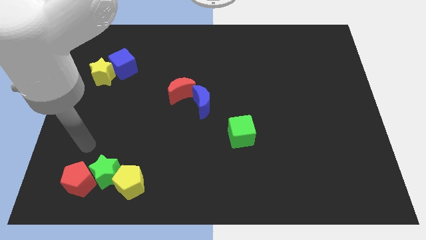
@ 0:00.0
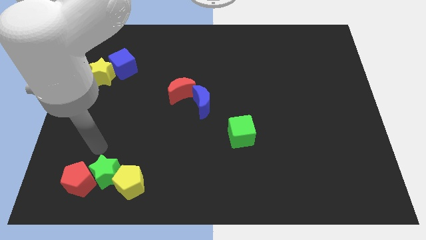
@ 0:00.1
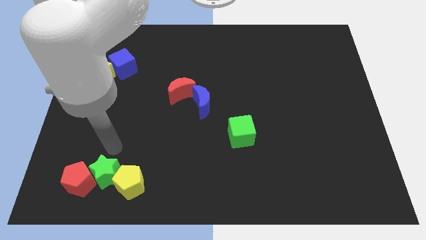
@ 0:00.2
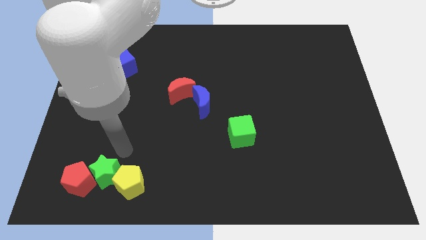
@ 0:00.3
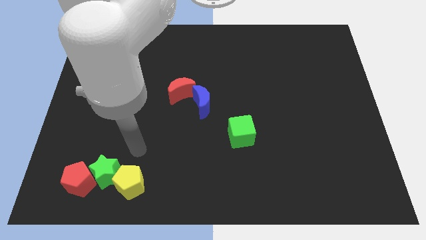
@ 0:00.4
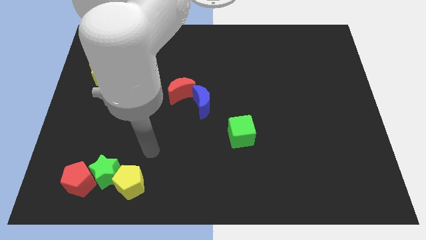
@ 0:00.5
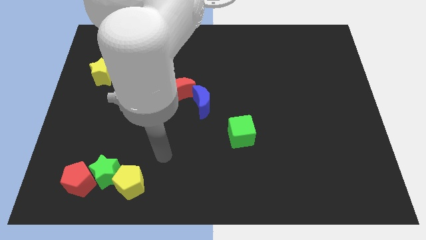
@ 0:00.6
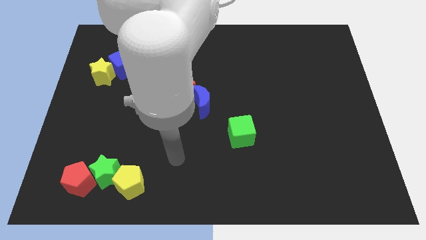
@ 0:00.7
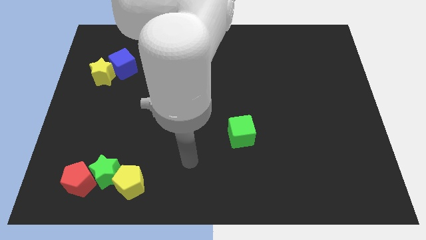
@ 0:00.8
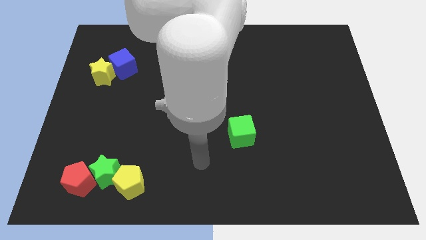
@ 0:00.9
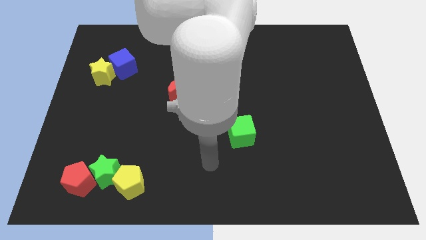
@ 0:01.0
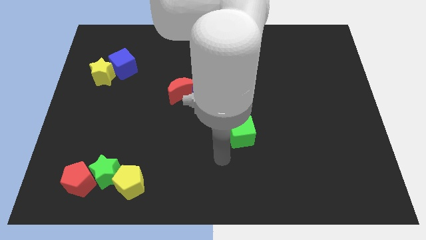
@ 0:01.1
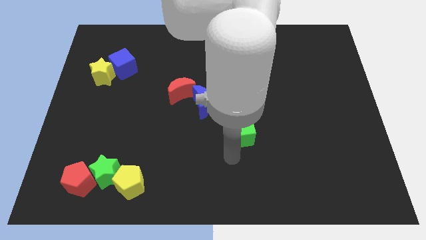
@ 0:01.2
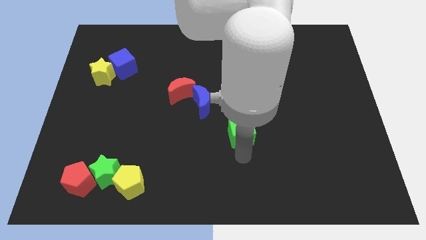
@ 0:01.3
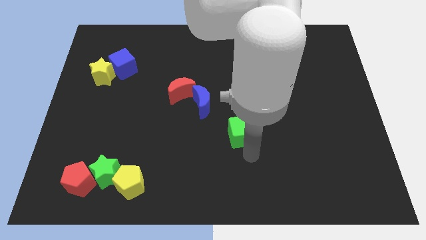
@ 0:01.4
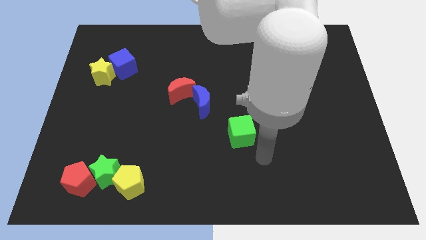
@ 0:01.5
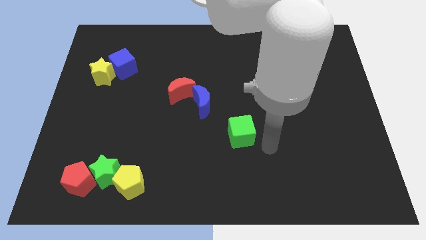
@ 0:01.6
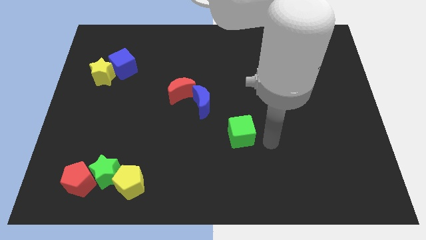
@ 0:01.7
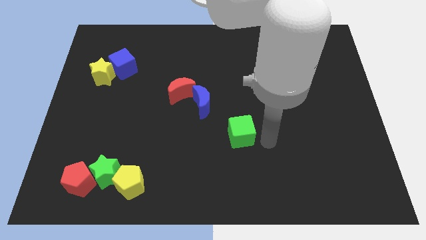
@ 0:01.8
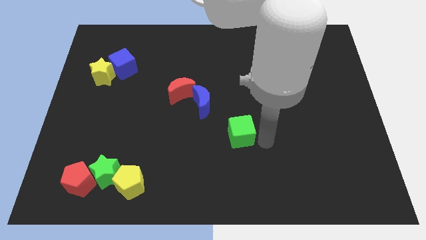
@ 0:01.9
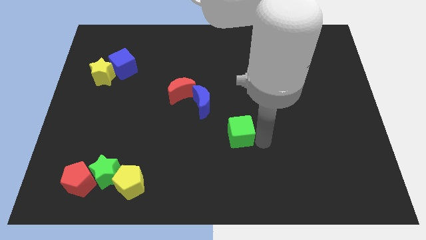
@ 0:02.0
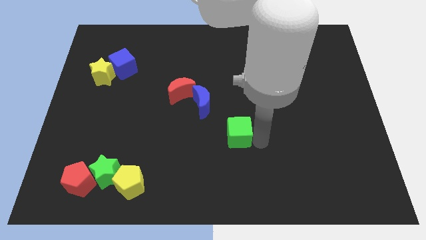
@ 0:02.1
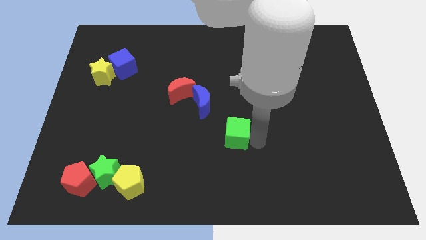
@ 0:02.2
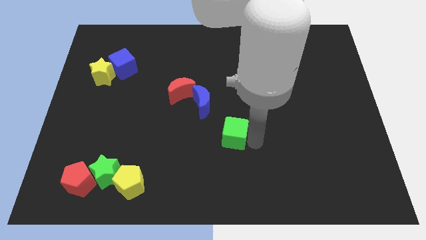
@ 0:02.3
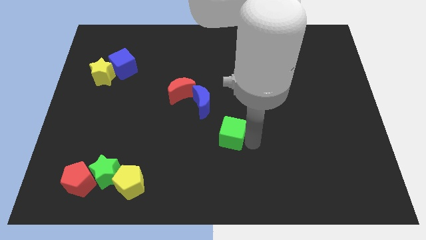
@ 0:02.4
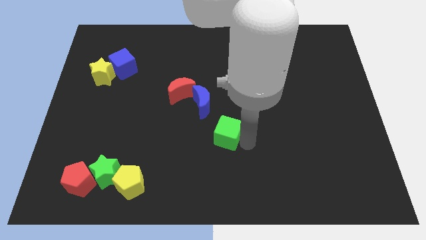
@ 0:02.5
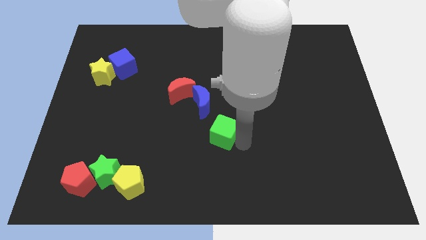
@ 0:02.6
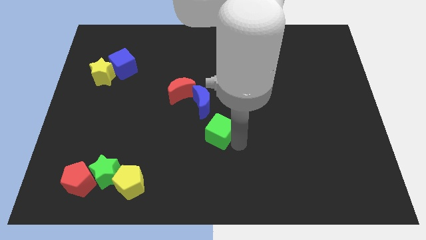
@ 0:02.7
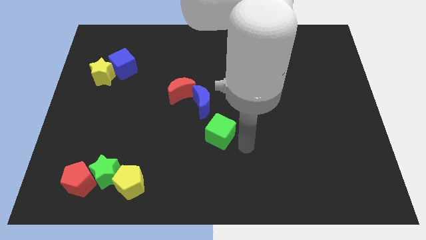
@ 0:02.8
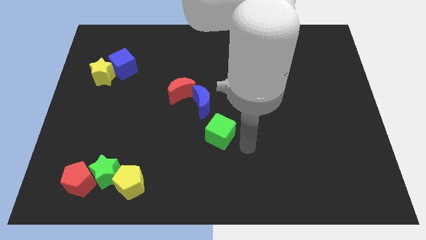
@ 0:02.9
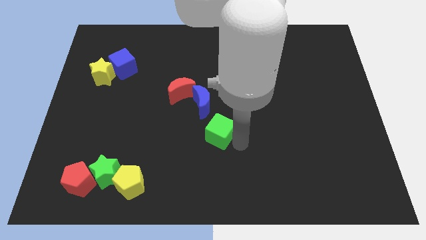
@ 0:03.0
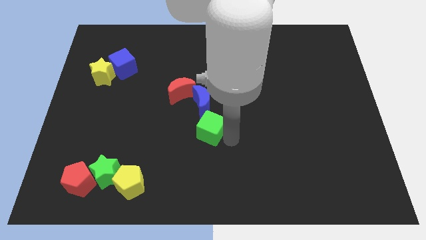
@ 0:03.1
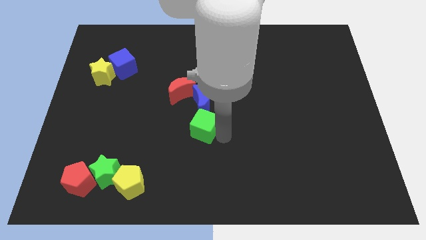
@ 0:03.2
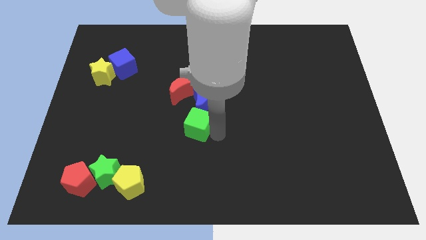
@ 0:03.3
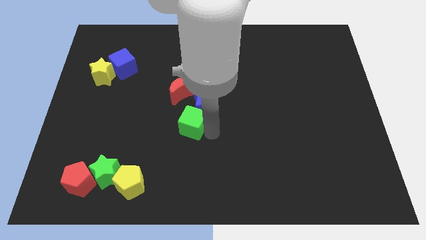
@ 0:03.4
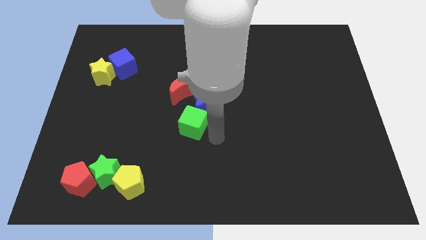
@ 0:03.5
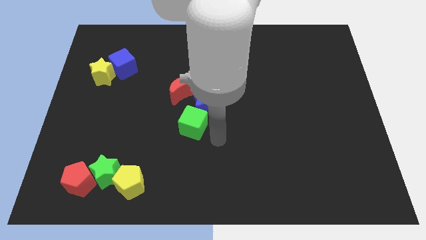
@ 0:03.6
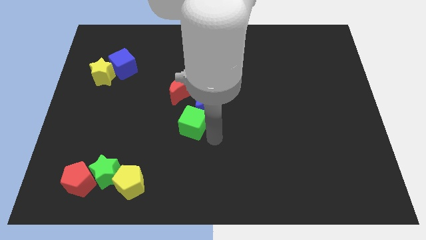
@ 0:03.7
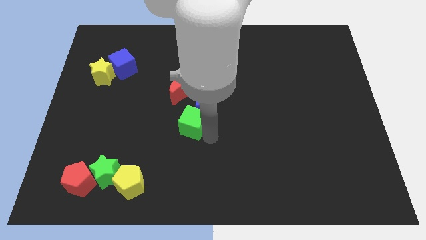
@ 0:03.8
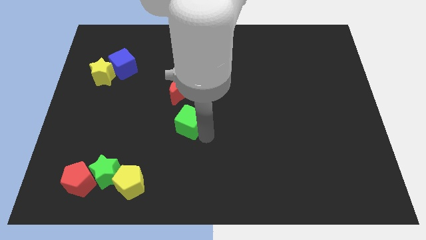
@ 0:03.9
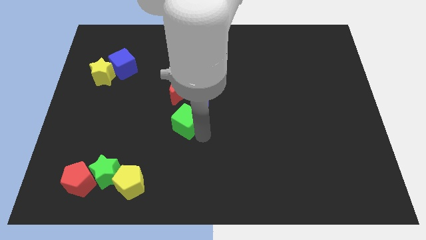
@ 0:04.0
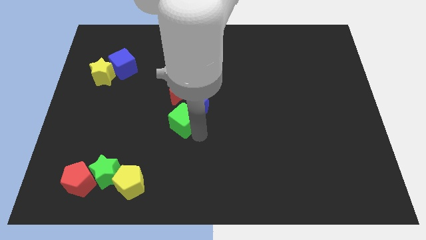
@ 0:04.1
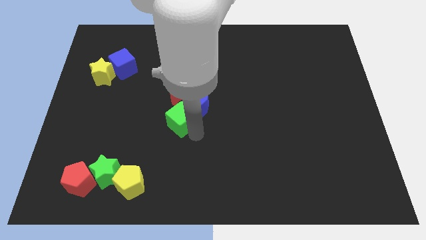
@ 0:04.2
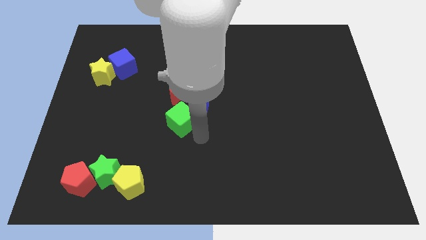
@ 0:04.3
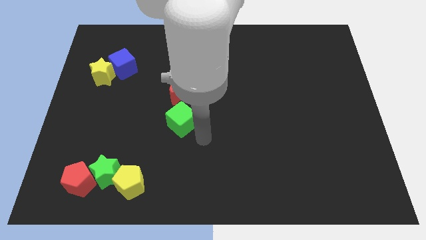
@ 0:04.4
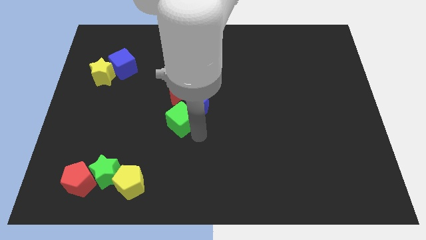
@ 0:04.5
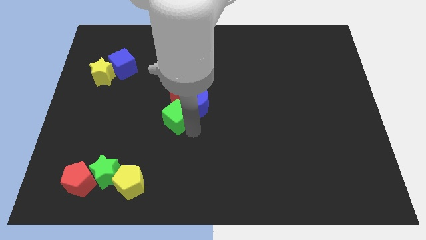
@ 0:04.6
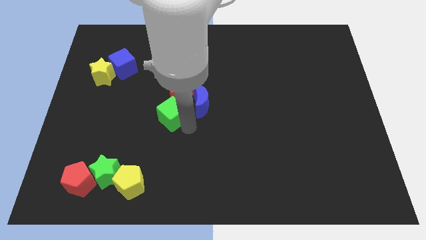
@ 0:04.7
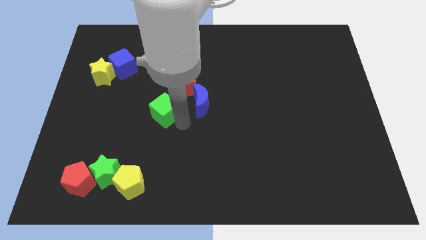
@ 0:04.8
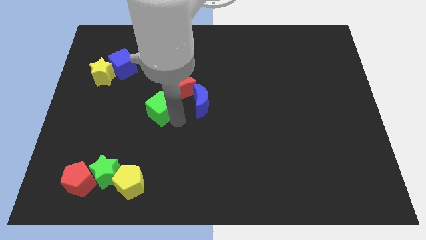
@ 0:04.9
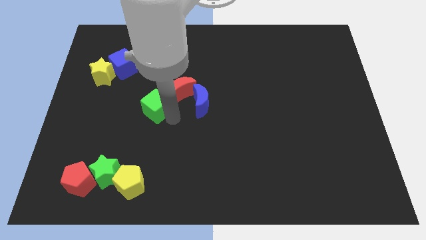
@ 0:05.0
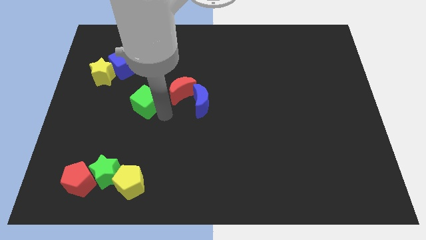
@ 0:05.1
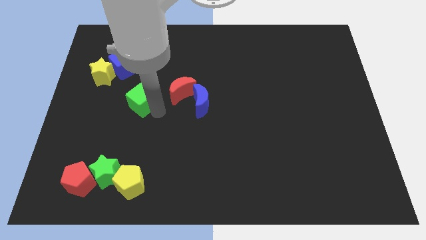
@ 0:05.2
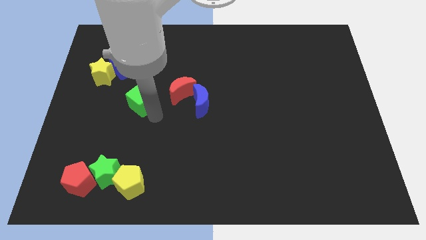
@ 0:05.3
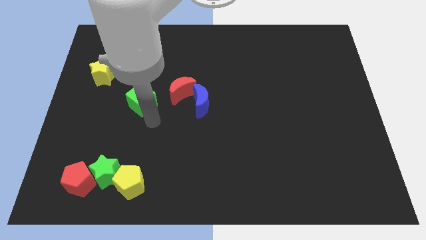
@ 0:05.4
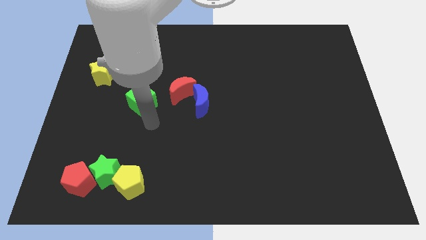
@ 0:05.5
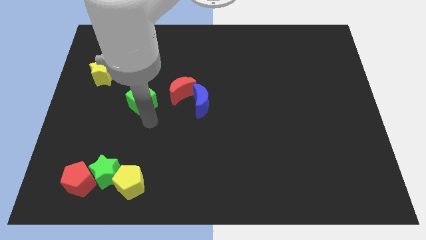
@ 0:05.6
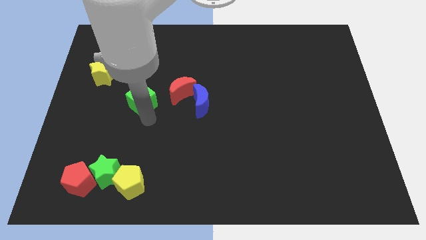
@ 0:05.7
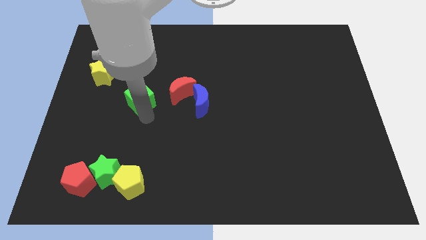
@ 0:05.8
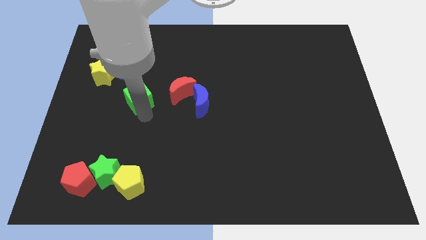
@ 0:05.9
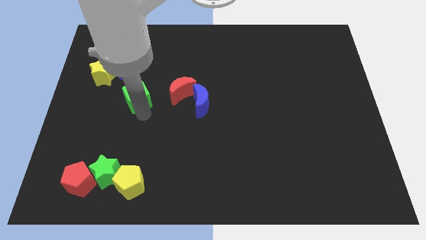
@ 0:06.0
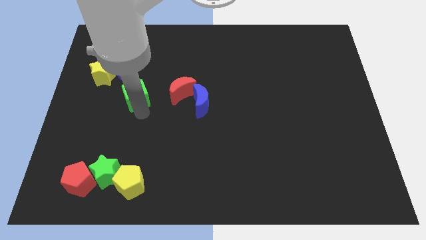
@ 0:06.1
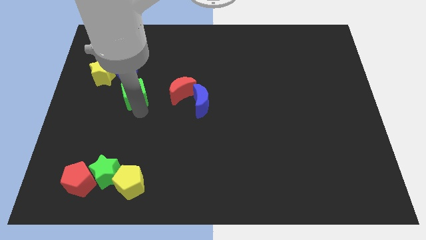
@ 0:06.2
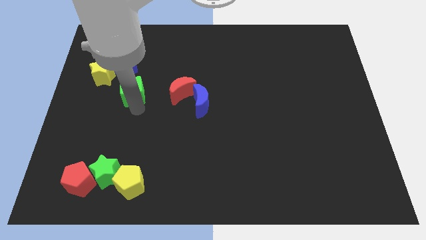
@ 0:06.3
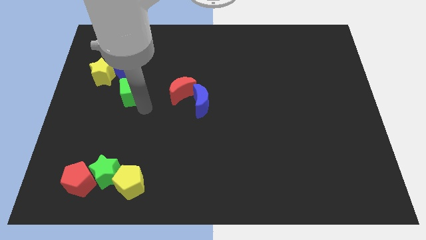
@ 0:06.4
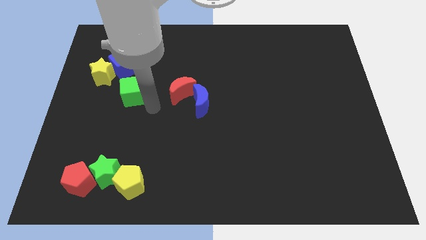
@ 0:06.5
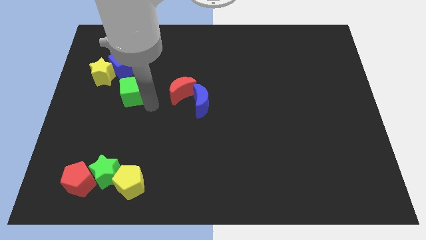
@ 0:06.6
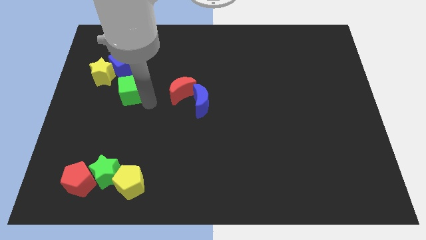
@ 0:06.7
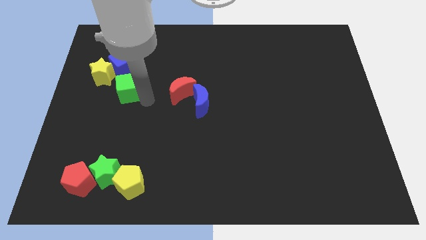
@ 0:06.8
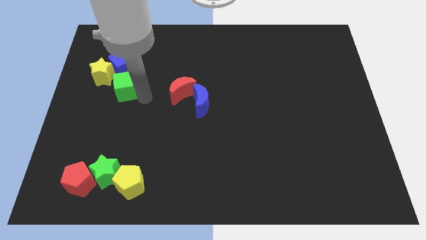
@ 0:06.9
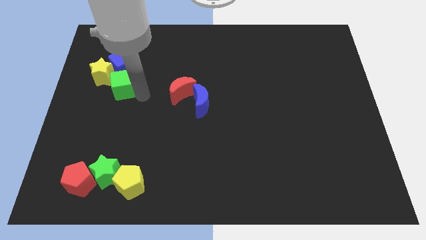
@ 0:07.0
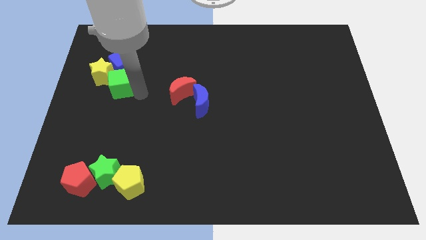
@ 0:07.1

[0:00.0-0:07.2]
push the green cube to the yellow star
